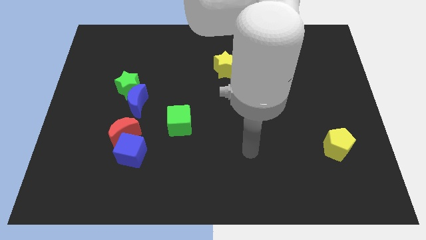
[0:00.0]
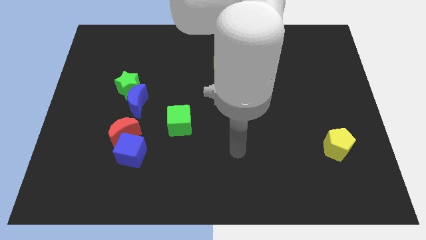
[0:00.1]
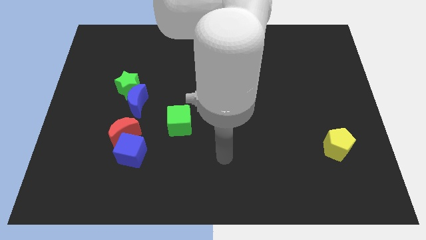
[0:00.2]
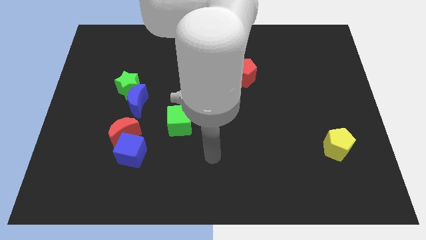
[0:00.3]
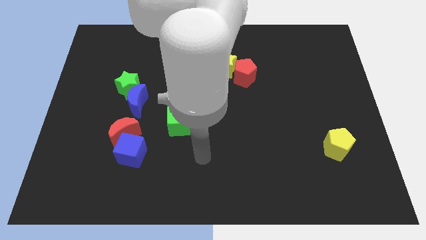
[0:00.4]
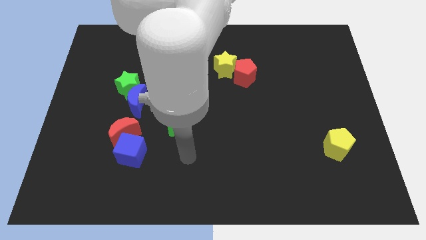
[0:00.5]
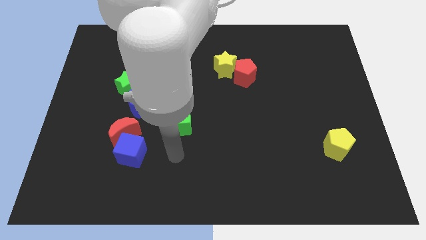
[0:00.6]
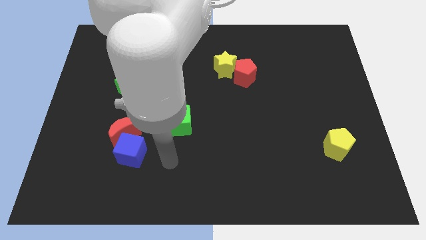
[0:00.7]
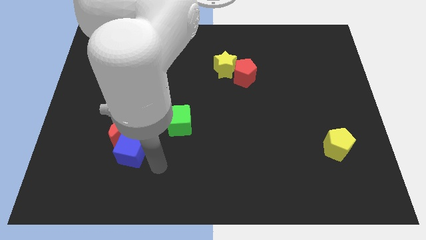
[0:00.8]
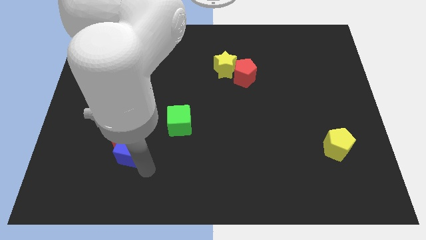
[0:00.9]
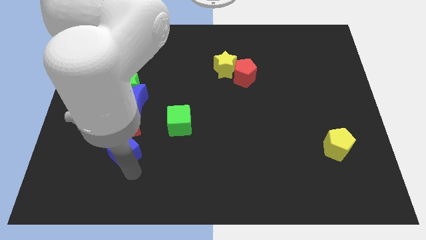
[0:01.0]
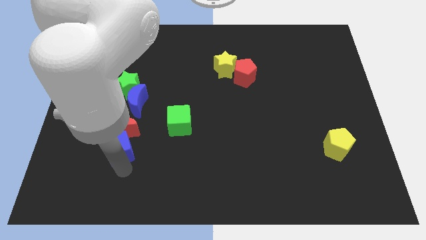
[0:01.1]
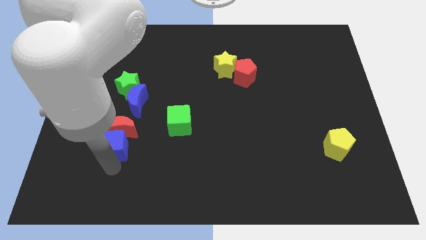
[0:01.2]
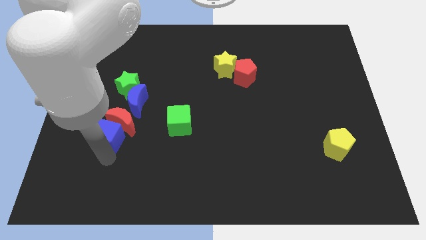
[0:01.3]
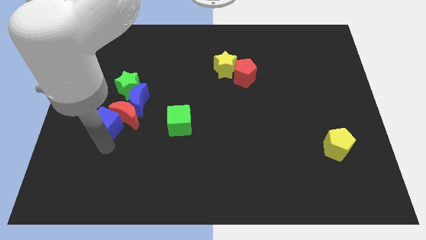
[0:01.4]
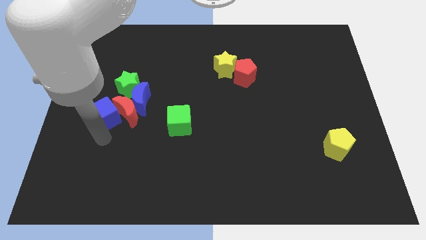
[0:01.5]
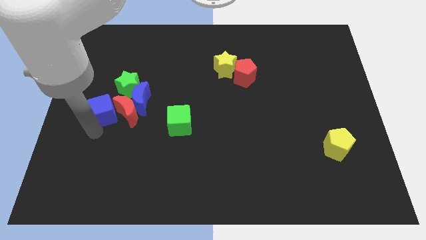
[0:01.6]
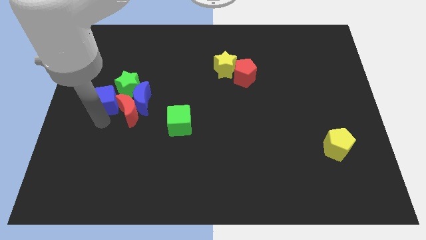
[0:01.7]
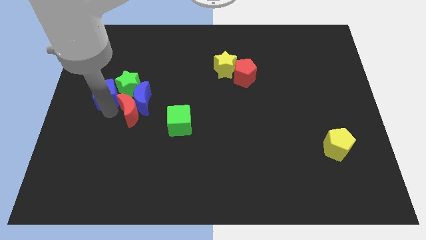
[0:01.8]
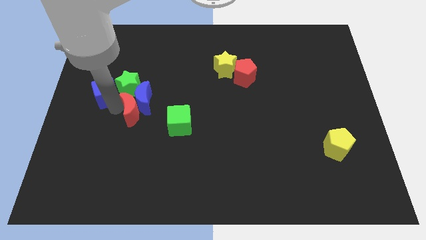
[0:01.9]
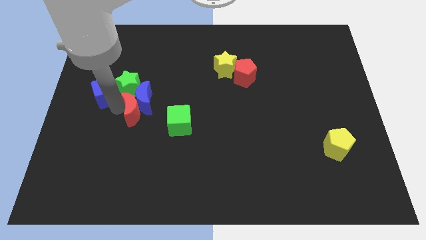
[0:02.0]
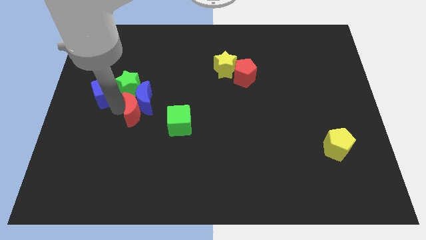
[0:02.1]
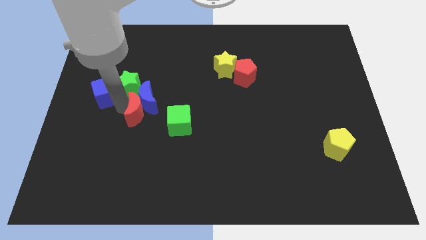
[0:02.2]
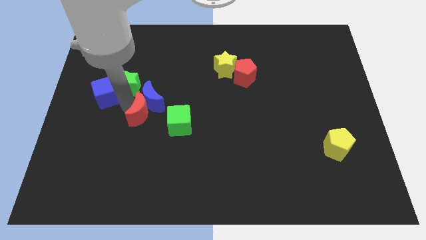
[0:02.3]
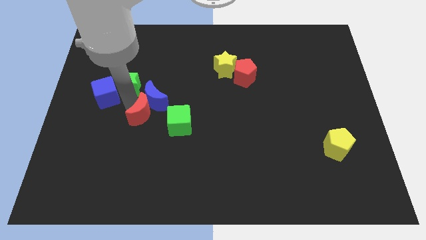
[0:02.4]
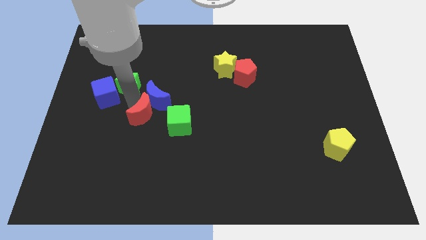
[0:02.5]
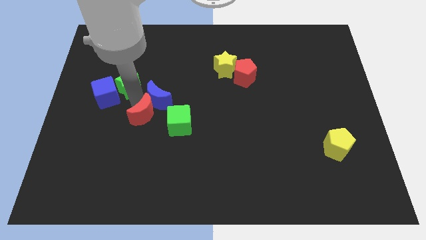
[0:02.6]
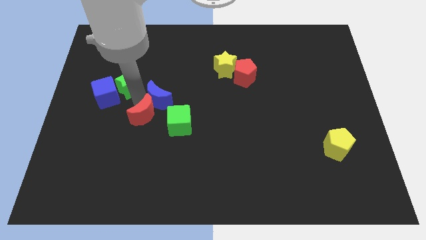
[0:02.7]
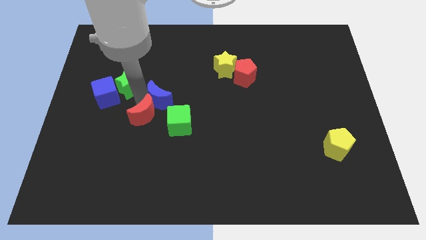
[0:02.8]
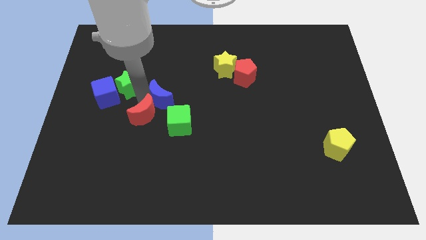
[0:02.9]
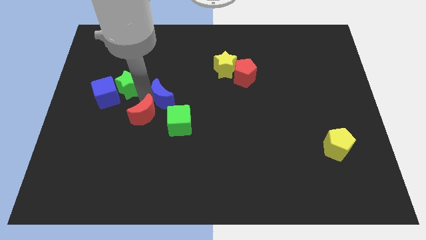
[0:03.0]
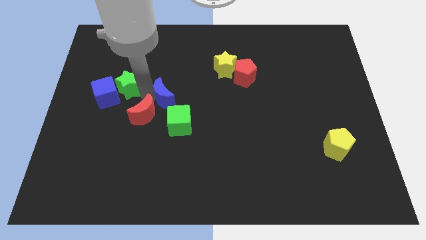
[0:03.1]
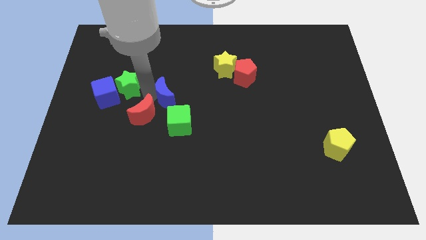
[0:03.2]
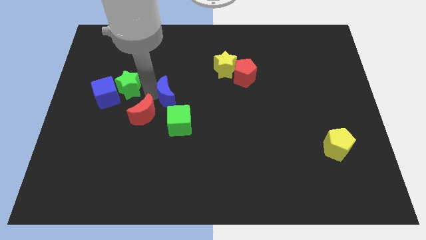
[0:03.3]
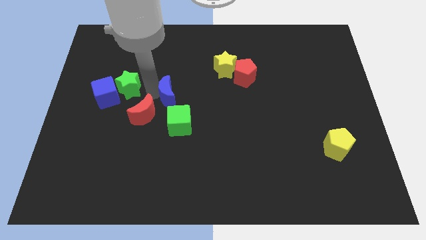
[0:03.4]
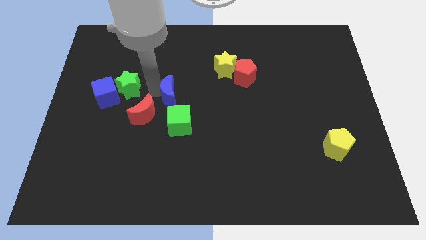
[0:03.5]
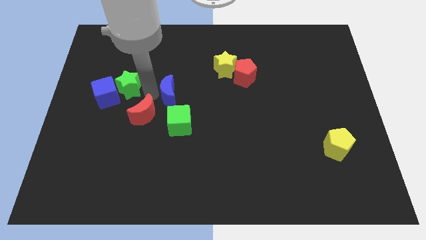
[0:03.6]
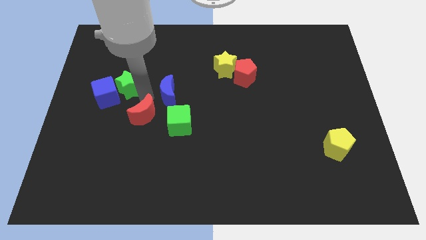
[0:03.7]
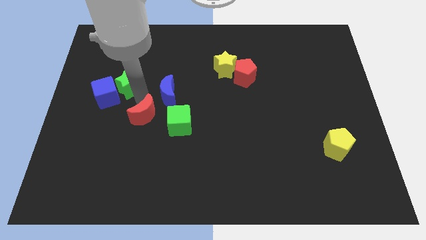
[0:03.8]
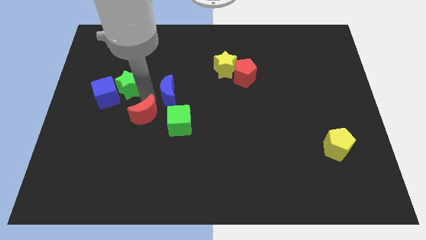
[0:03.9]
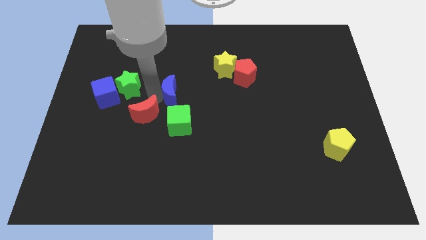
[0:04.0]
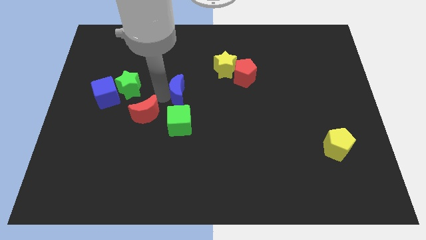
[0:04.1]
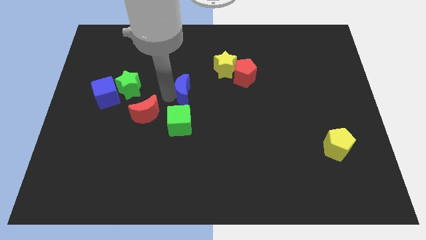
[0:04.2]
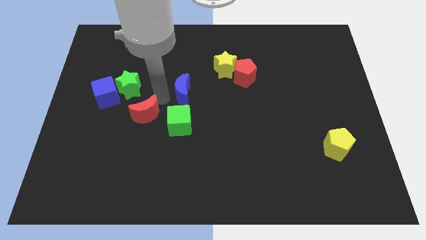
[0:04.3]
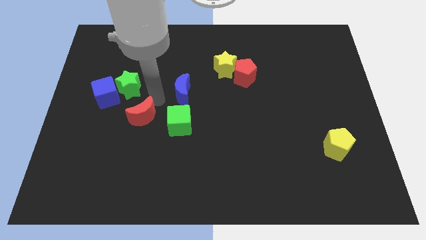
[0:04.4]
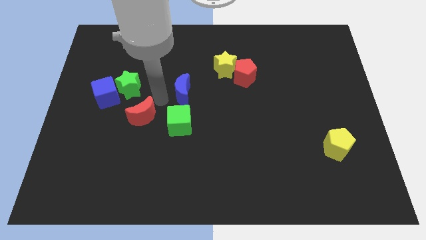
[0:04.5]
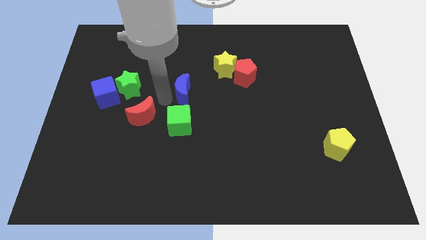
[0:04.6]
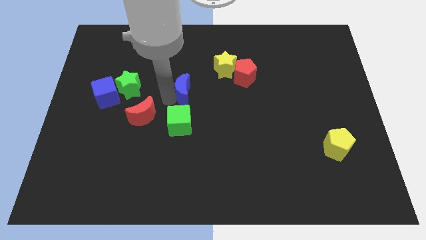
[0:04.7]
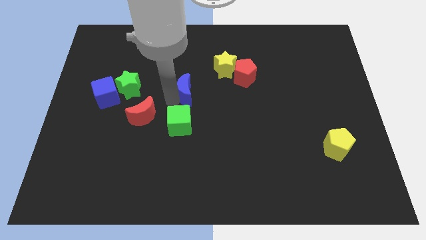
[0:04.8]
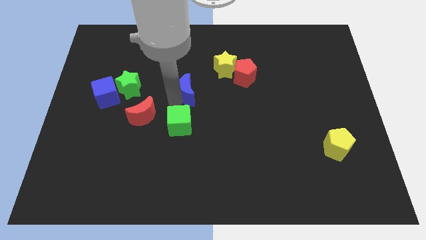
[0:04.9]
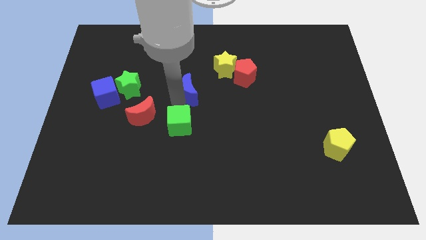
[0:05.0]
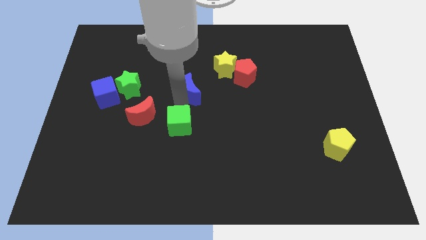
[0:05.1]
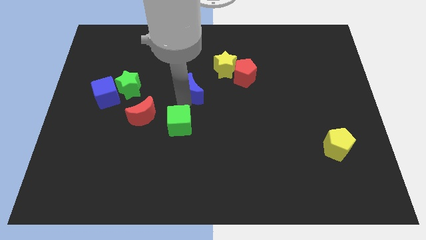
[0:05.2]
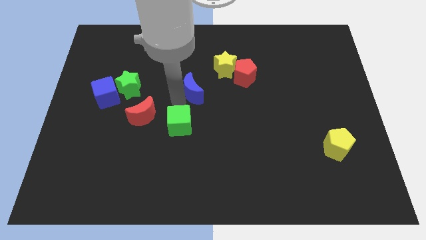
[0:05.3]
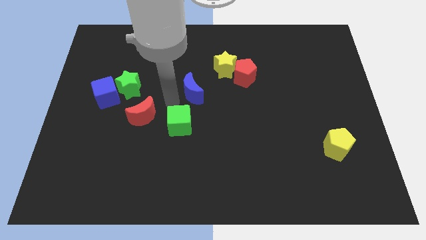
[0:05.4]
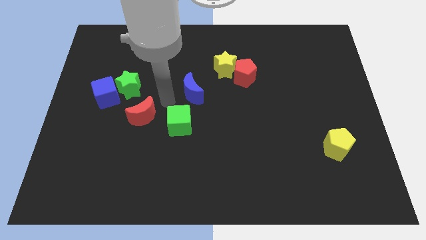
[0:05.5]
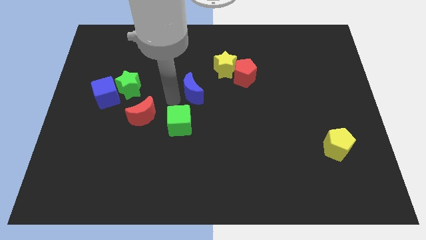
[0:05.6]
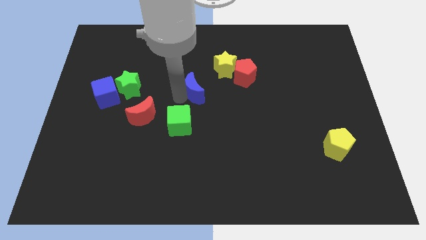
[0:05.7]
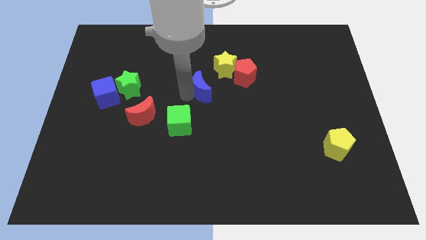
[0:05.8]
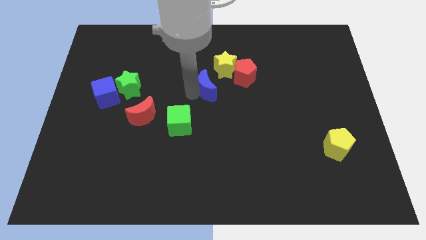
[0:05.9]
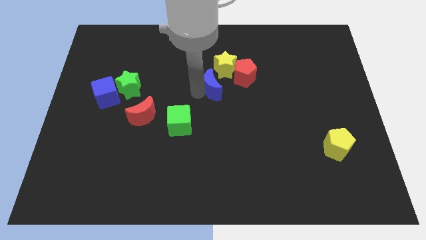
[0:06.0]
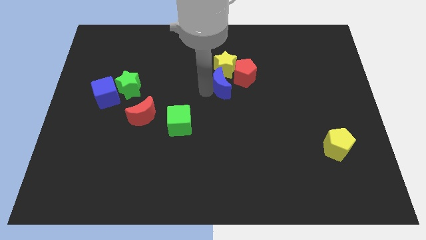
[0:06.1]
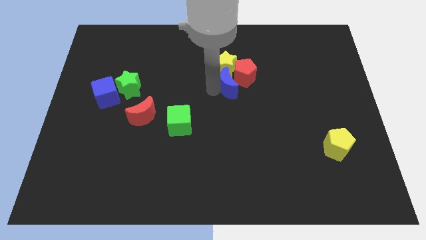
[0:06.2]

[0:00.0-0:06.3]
put the blue moon to the red pentagon

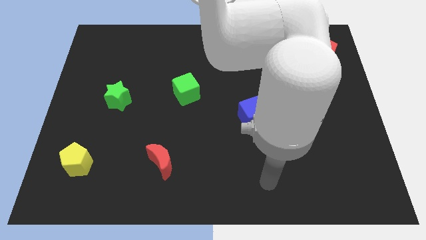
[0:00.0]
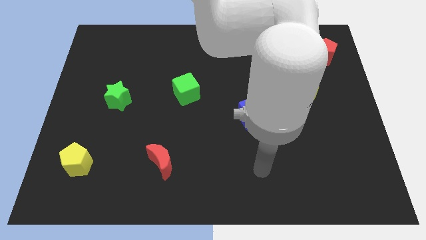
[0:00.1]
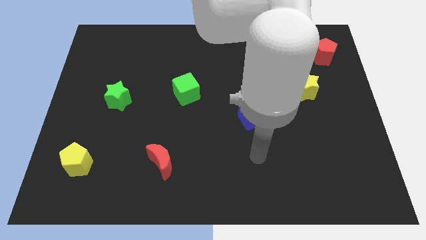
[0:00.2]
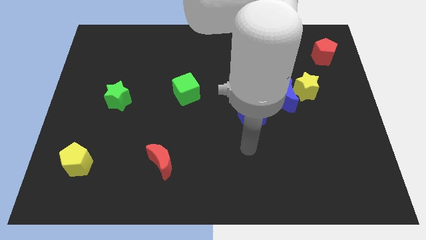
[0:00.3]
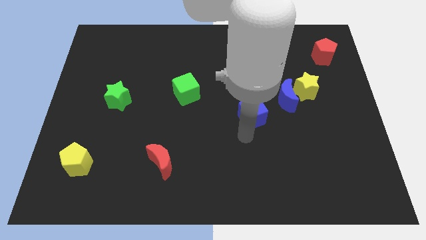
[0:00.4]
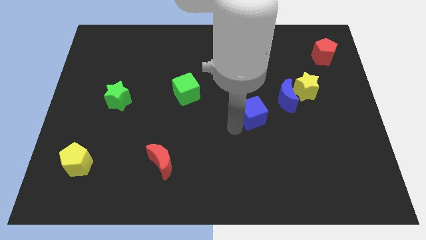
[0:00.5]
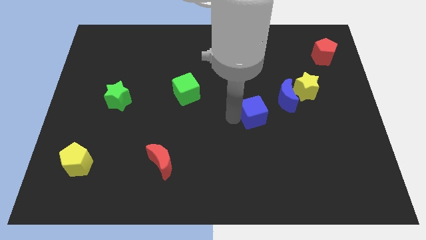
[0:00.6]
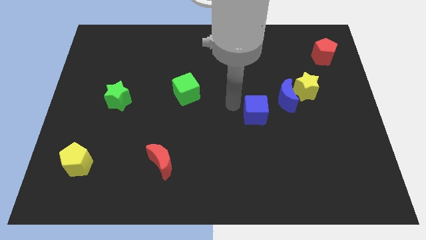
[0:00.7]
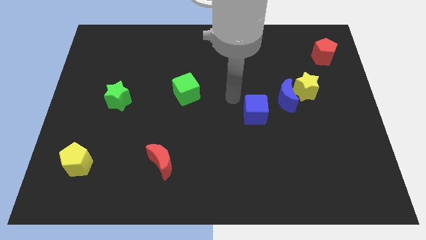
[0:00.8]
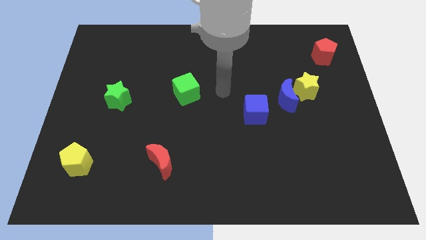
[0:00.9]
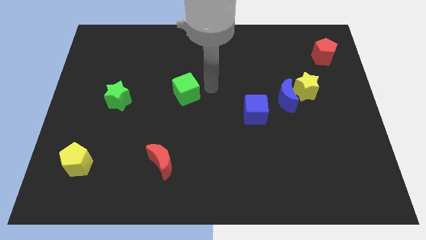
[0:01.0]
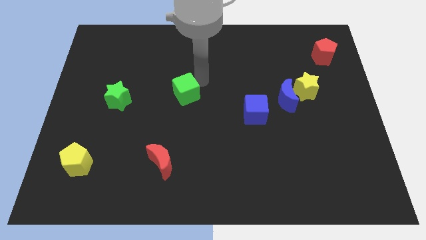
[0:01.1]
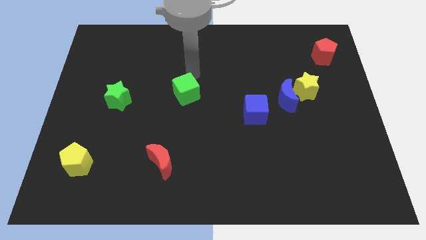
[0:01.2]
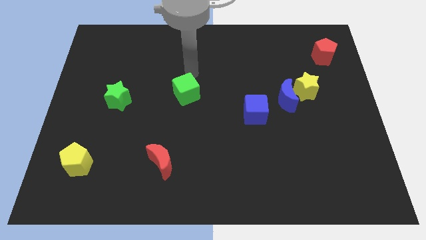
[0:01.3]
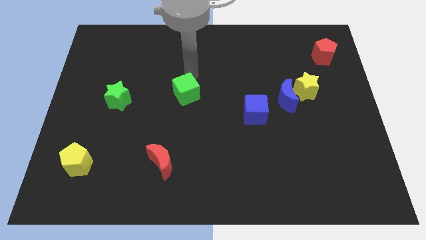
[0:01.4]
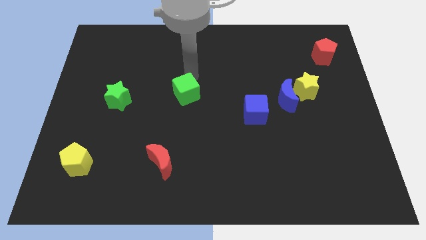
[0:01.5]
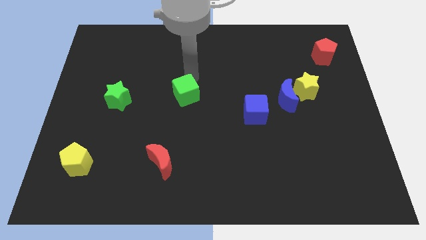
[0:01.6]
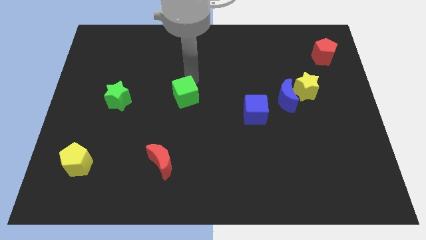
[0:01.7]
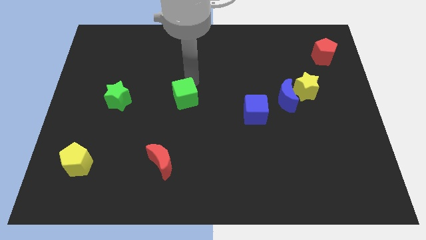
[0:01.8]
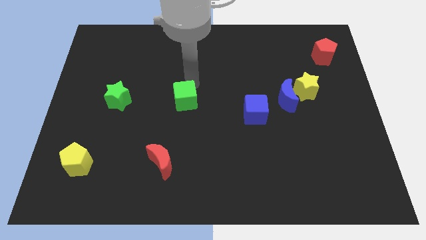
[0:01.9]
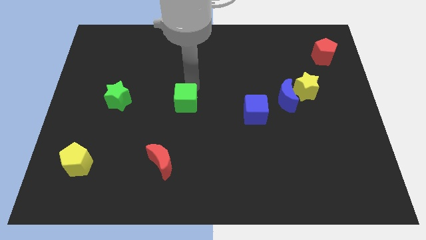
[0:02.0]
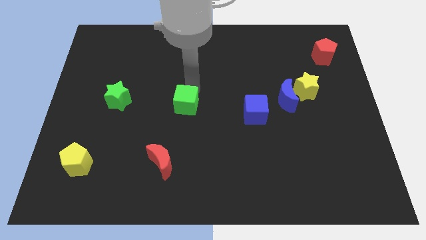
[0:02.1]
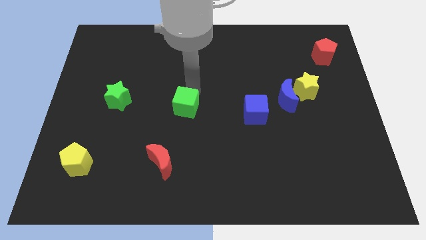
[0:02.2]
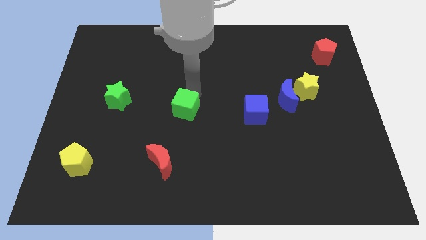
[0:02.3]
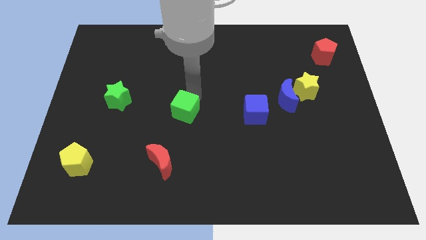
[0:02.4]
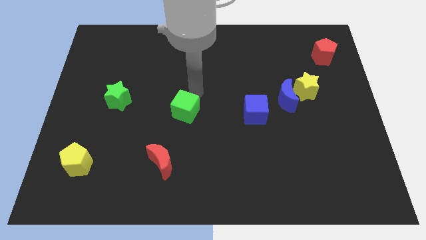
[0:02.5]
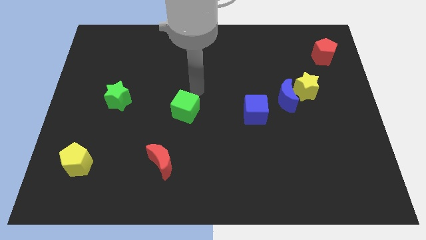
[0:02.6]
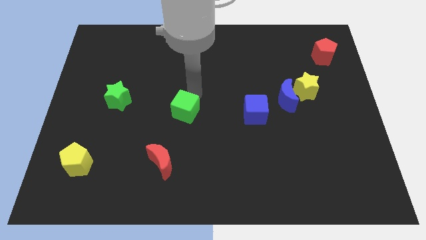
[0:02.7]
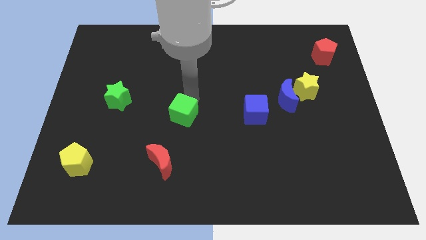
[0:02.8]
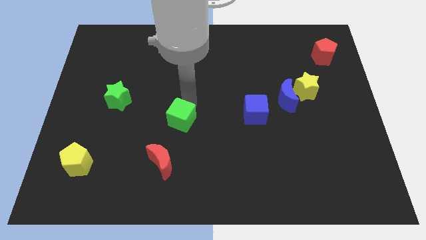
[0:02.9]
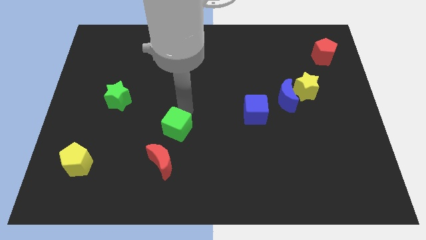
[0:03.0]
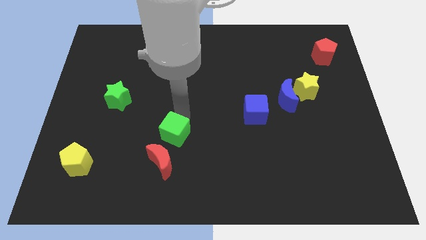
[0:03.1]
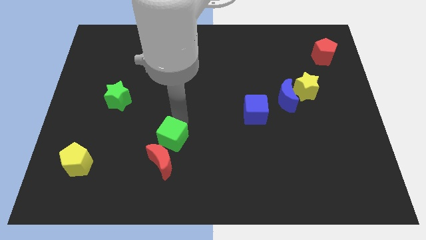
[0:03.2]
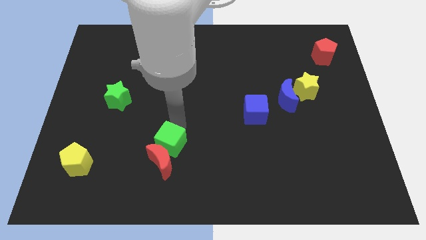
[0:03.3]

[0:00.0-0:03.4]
put the green cube next to the red moon
